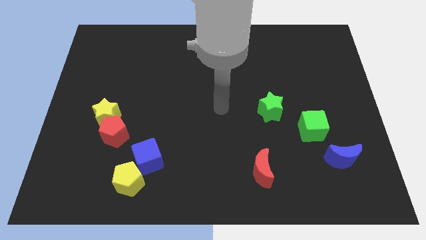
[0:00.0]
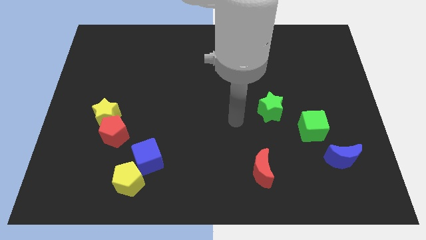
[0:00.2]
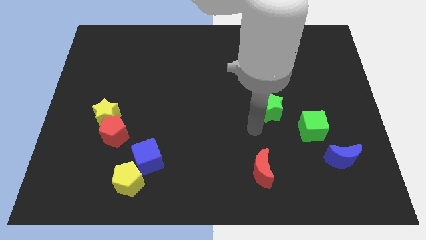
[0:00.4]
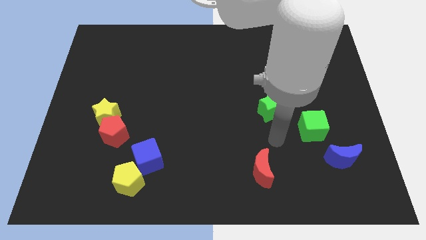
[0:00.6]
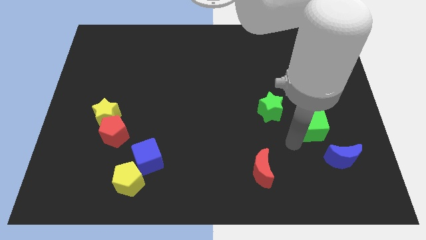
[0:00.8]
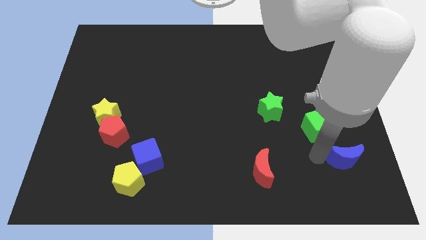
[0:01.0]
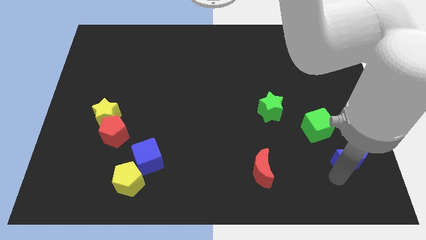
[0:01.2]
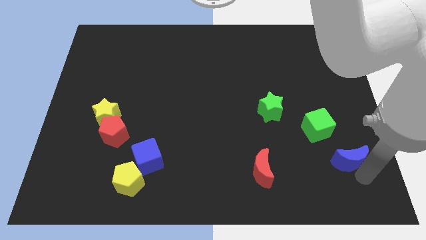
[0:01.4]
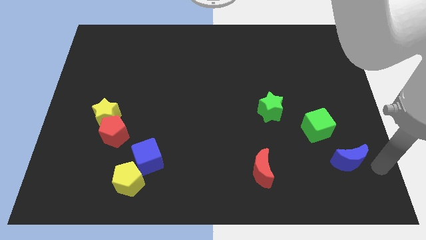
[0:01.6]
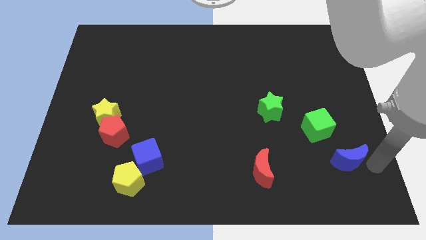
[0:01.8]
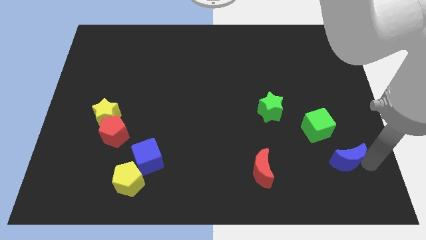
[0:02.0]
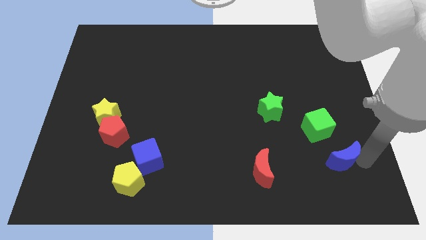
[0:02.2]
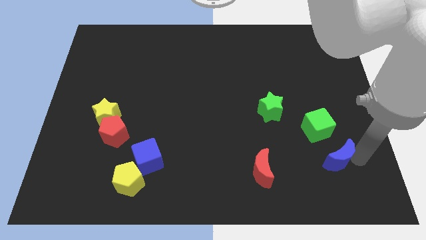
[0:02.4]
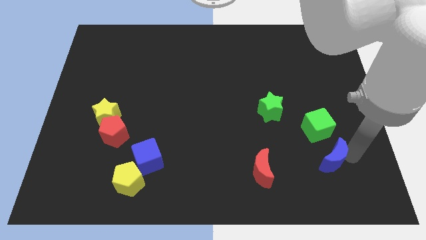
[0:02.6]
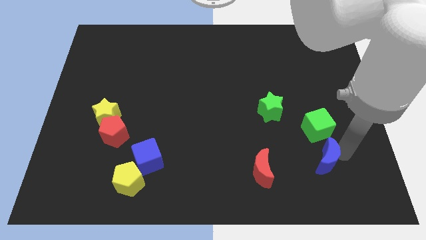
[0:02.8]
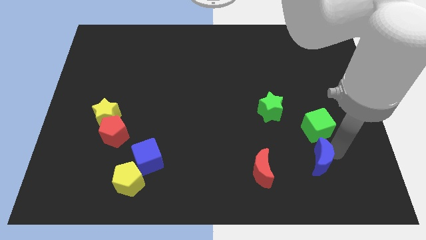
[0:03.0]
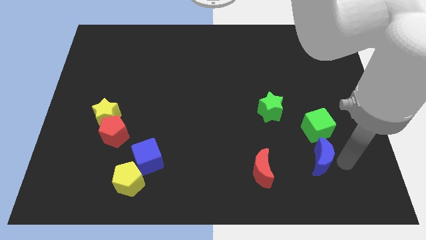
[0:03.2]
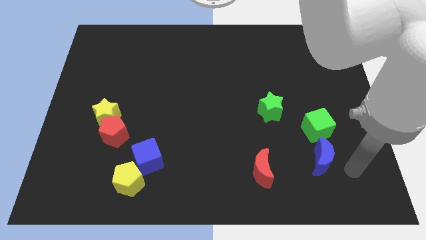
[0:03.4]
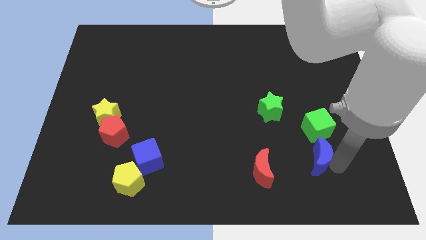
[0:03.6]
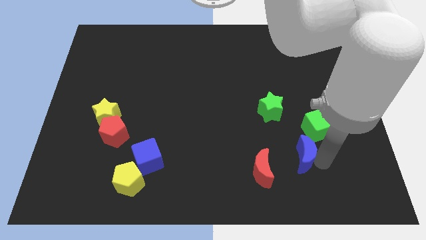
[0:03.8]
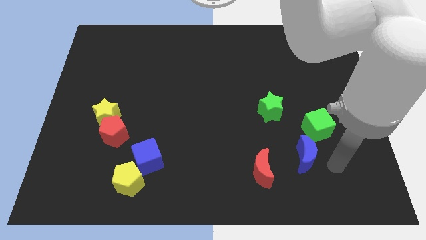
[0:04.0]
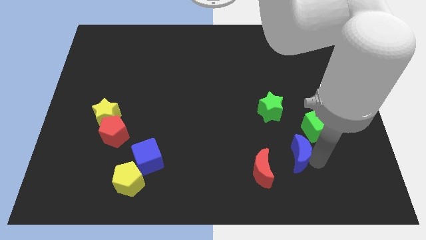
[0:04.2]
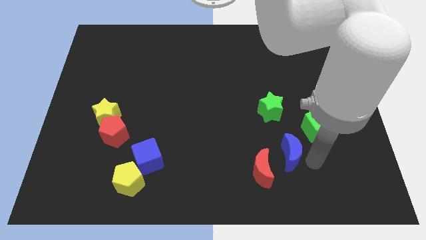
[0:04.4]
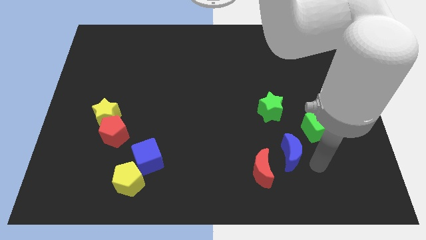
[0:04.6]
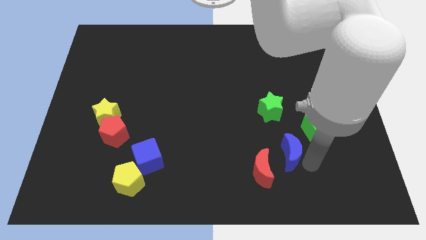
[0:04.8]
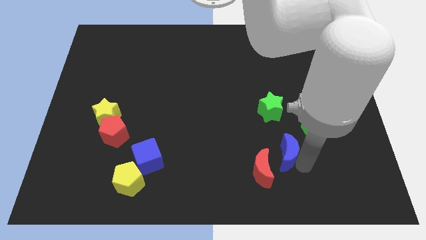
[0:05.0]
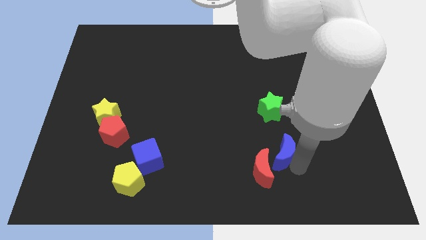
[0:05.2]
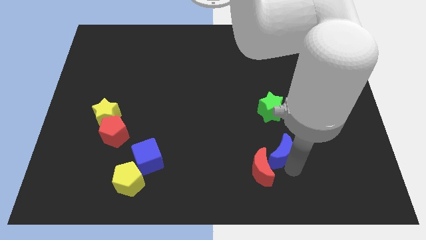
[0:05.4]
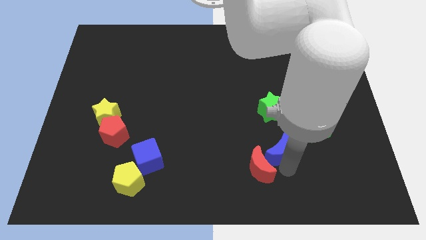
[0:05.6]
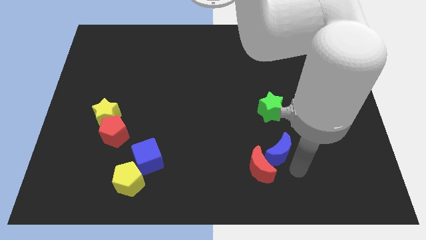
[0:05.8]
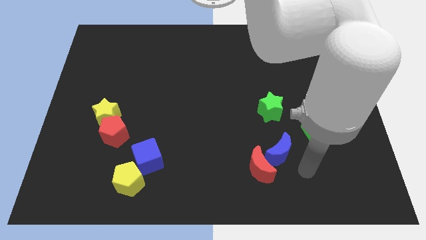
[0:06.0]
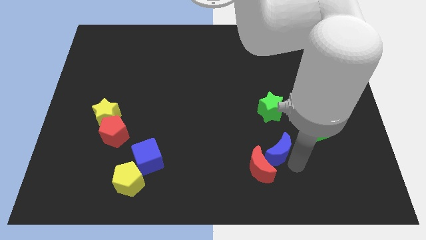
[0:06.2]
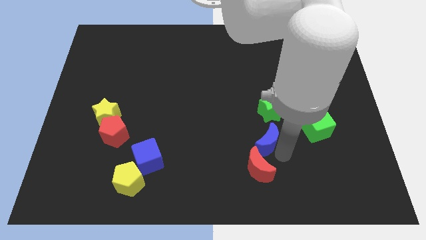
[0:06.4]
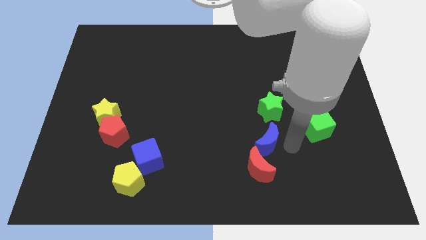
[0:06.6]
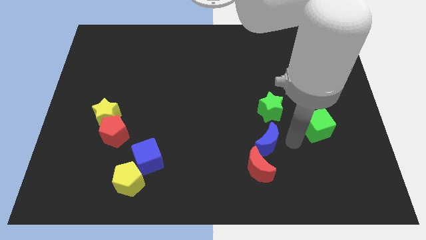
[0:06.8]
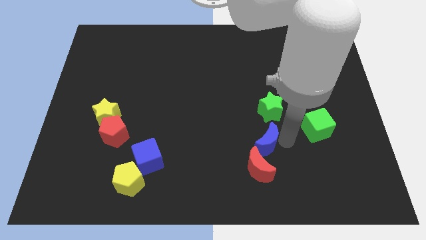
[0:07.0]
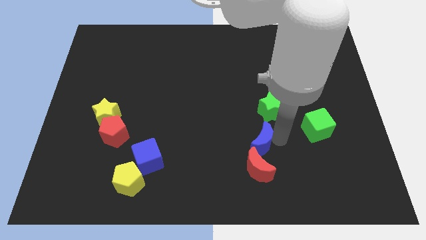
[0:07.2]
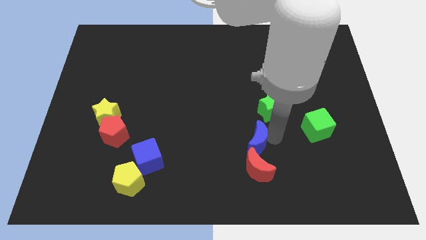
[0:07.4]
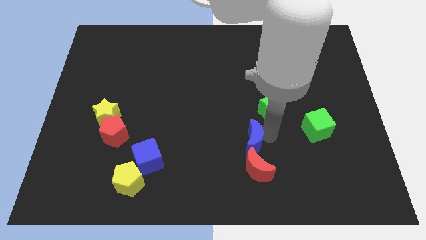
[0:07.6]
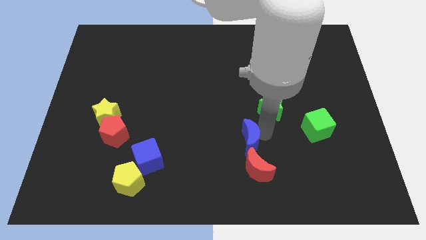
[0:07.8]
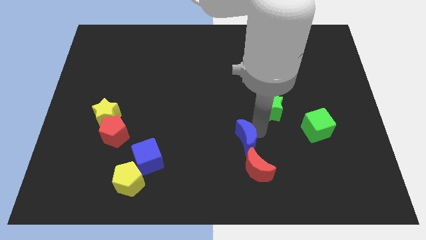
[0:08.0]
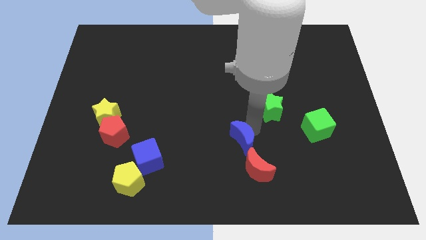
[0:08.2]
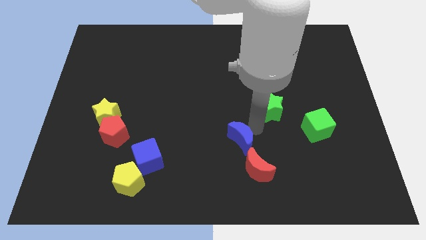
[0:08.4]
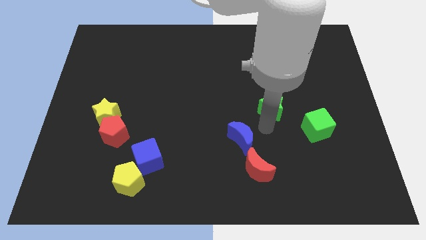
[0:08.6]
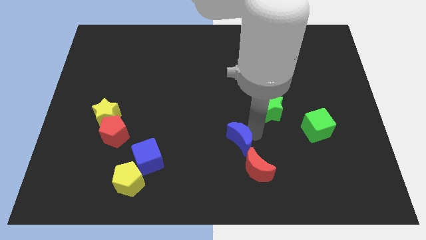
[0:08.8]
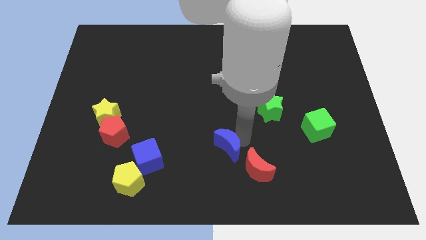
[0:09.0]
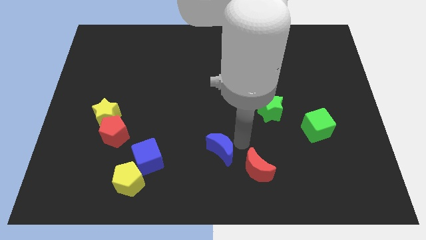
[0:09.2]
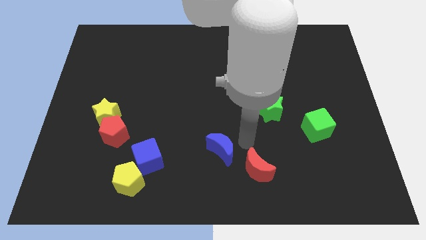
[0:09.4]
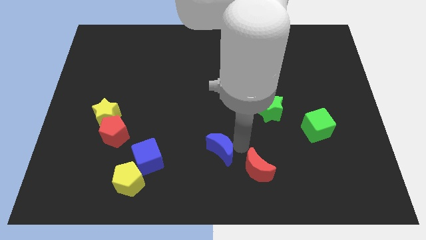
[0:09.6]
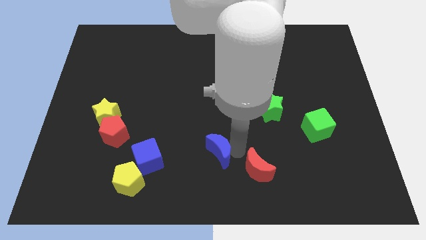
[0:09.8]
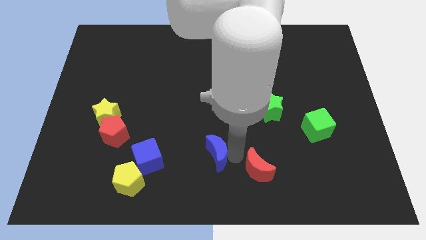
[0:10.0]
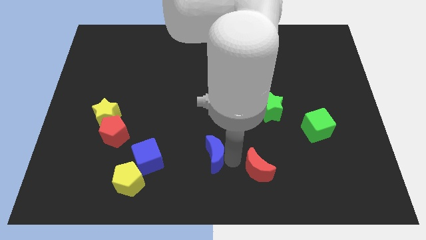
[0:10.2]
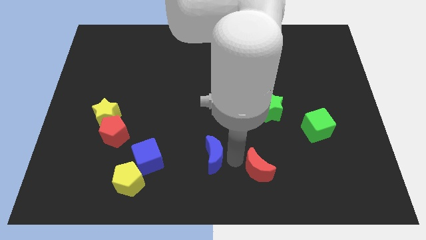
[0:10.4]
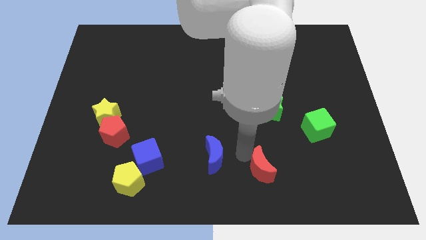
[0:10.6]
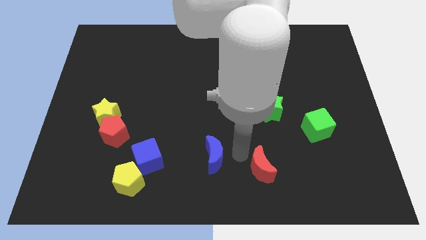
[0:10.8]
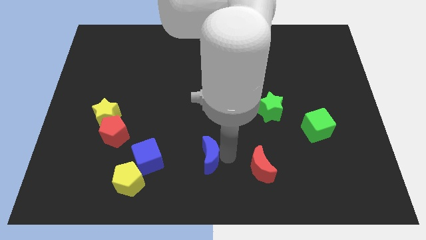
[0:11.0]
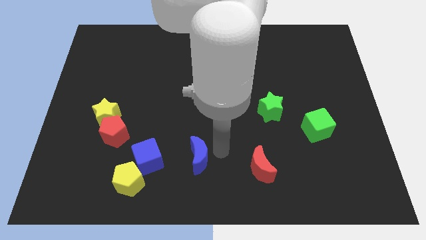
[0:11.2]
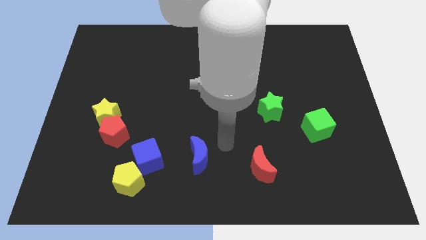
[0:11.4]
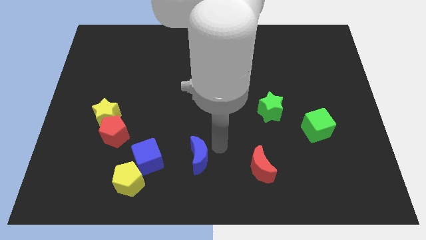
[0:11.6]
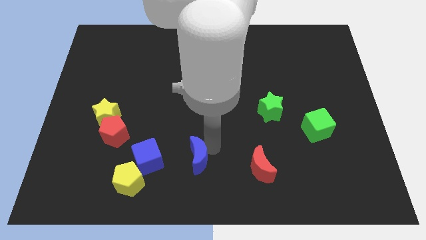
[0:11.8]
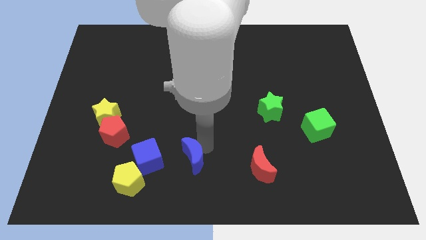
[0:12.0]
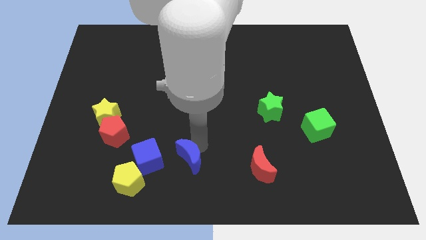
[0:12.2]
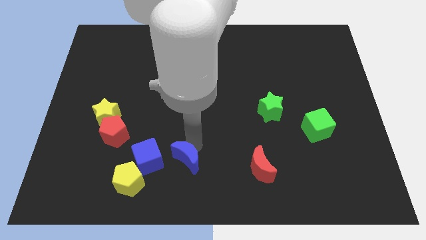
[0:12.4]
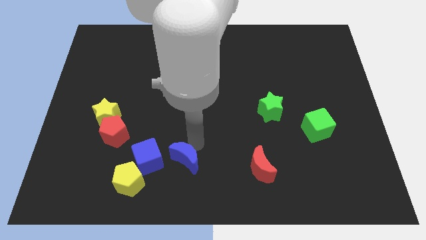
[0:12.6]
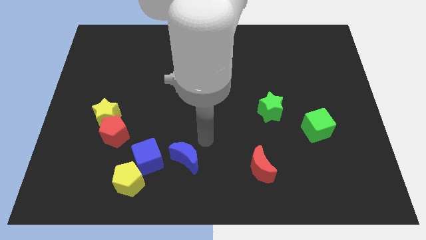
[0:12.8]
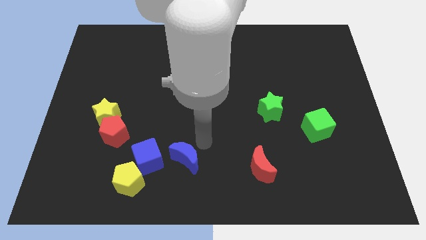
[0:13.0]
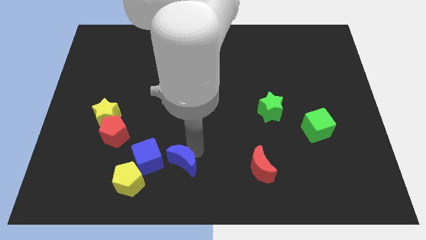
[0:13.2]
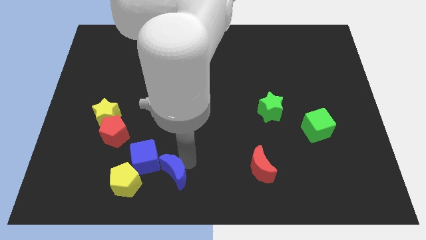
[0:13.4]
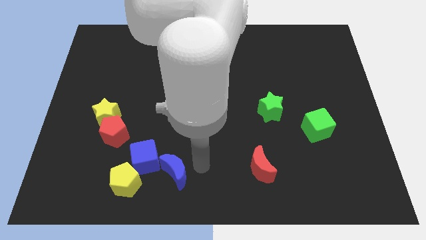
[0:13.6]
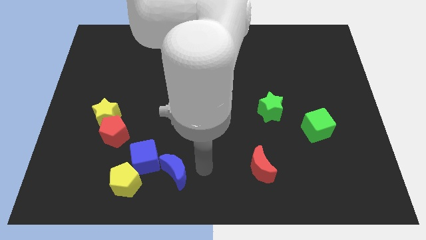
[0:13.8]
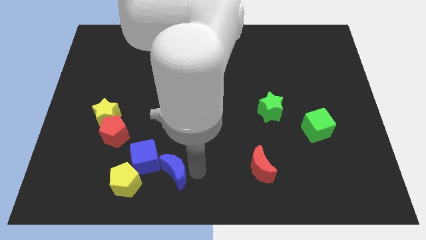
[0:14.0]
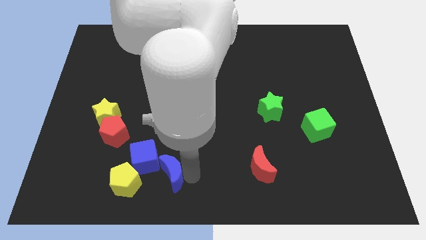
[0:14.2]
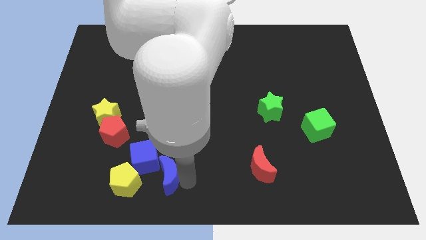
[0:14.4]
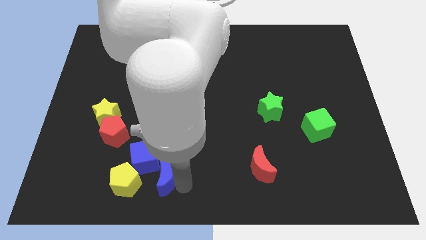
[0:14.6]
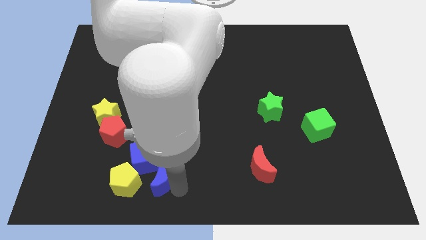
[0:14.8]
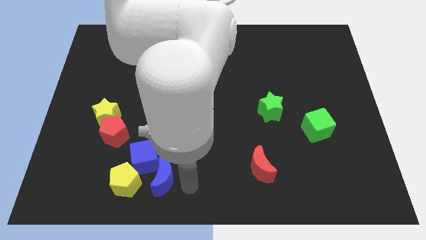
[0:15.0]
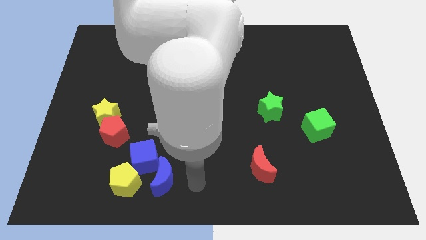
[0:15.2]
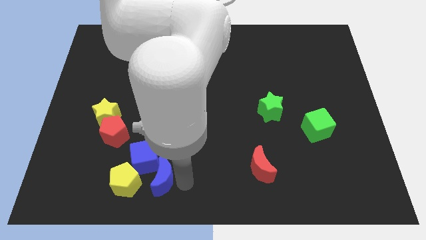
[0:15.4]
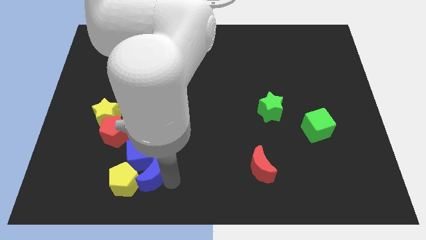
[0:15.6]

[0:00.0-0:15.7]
move the blue moon next to the yellow pentagon
